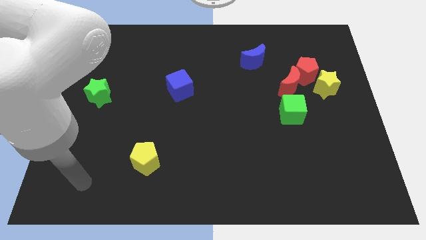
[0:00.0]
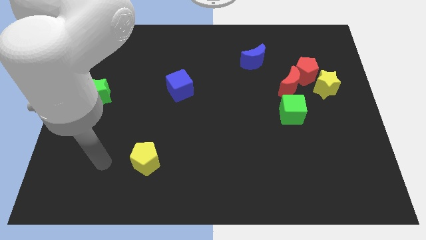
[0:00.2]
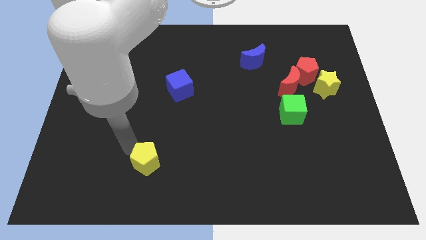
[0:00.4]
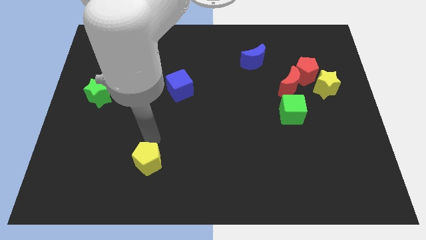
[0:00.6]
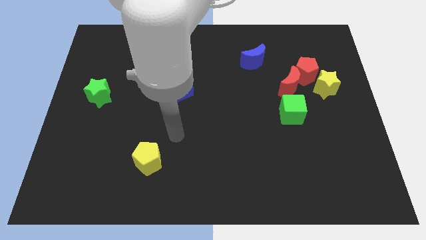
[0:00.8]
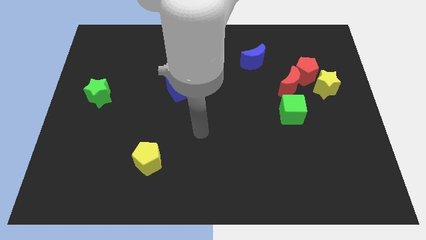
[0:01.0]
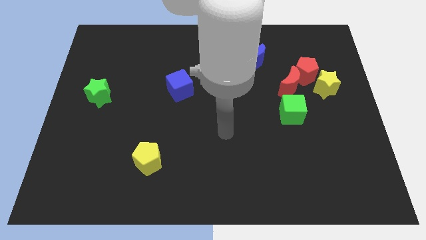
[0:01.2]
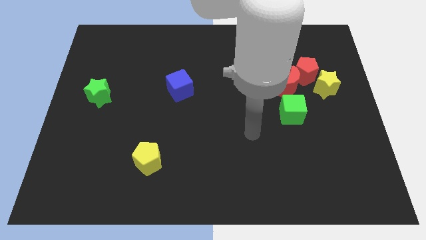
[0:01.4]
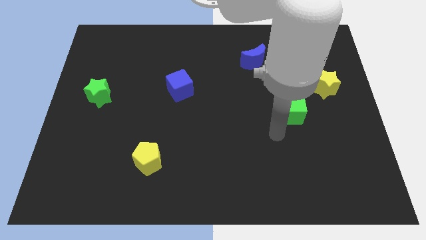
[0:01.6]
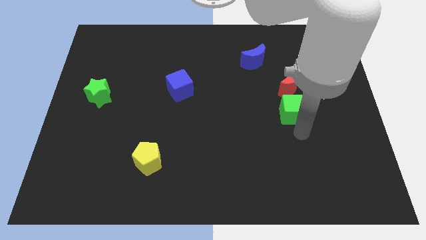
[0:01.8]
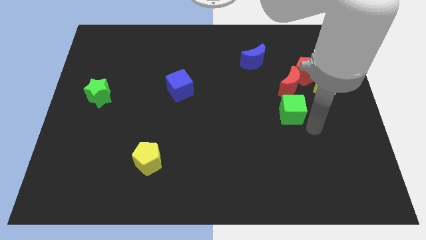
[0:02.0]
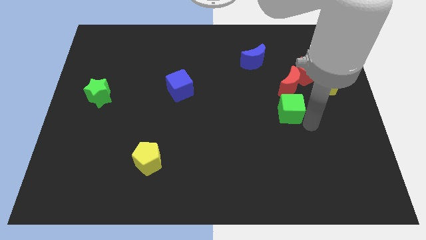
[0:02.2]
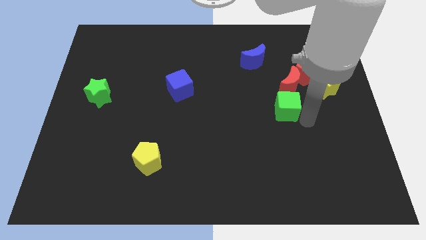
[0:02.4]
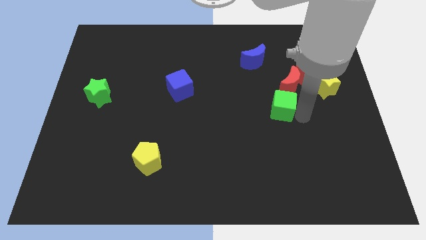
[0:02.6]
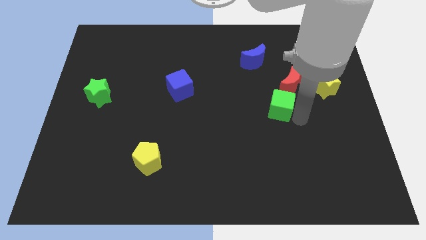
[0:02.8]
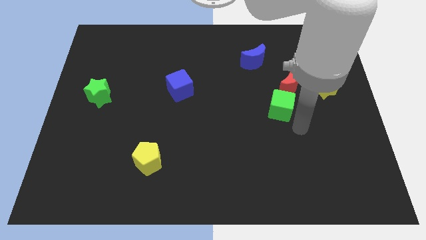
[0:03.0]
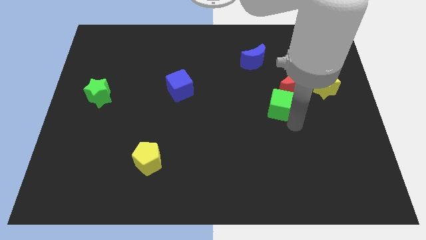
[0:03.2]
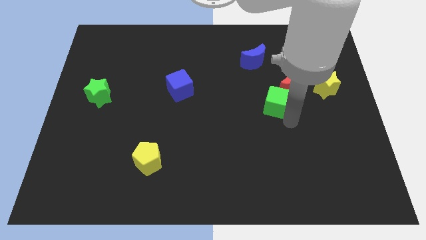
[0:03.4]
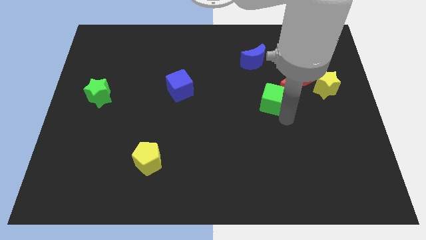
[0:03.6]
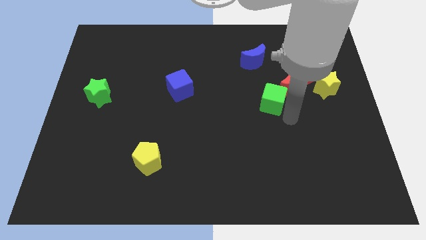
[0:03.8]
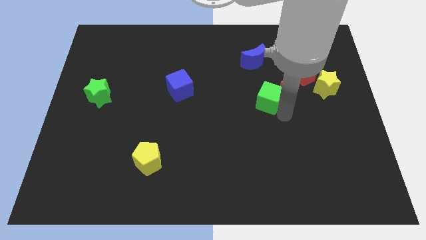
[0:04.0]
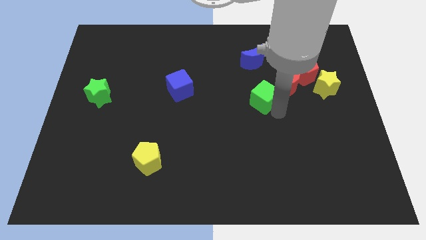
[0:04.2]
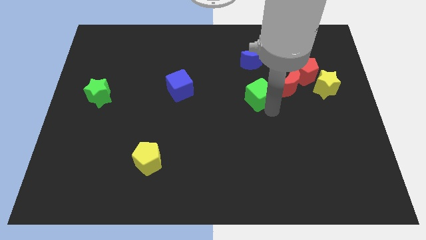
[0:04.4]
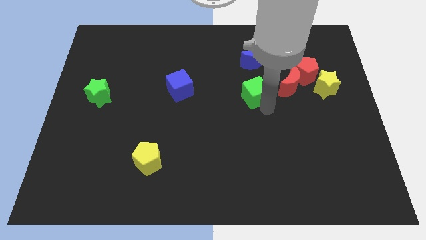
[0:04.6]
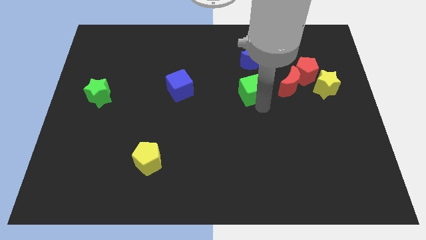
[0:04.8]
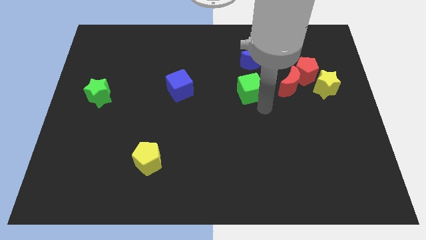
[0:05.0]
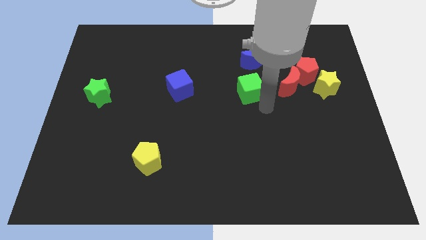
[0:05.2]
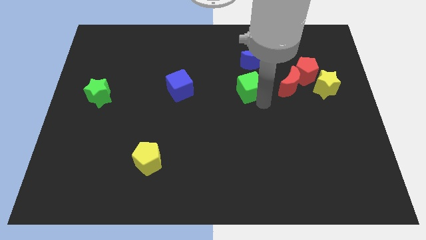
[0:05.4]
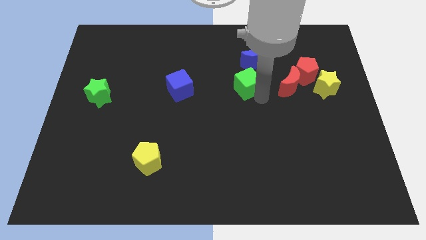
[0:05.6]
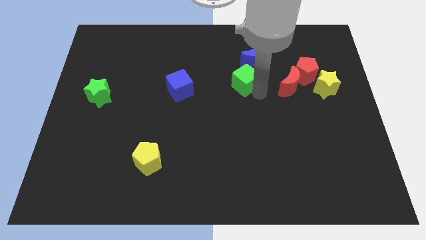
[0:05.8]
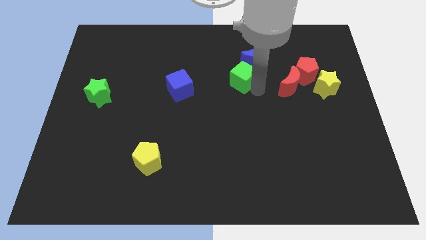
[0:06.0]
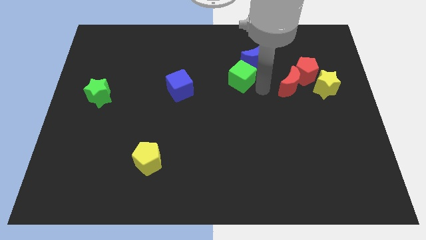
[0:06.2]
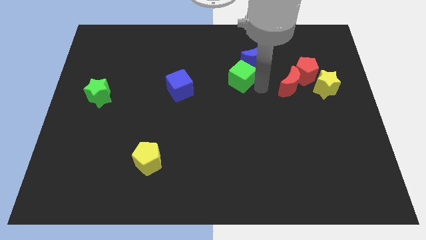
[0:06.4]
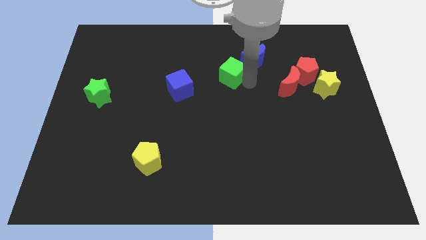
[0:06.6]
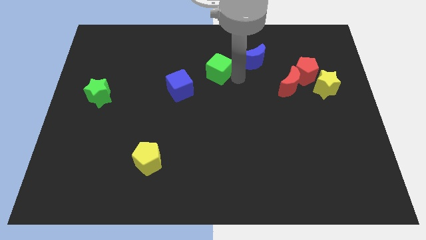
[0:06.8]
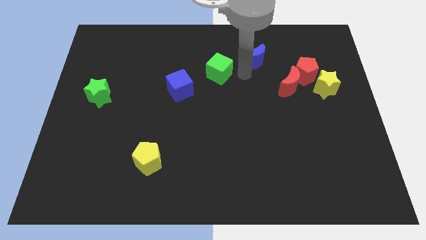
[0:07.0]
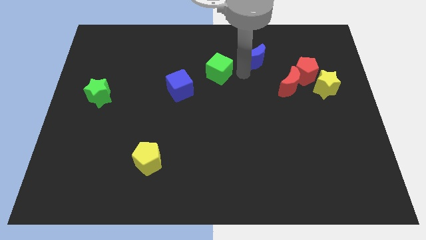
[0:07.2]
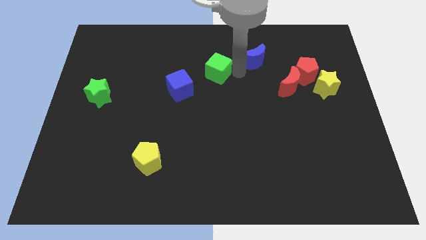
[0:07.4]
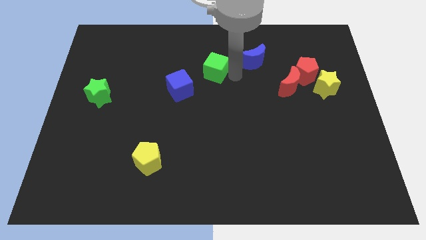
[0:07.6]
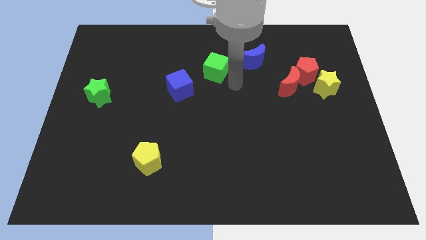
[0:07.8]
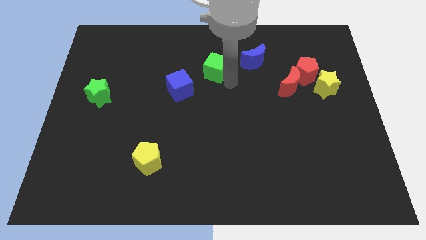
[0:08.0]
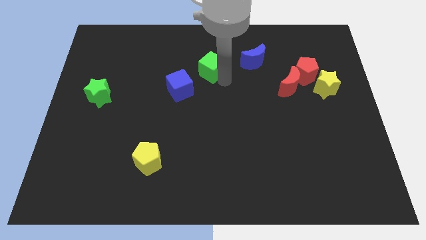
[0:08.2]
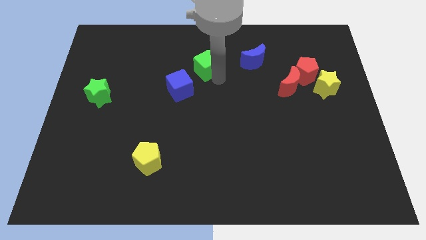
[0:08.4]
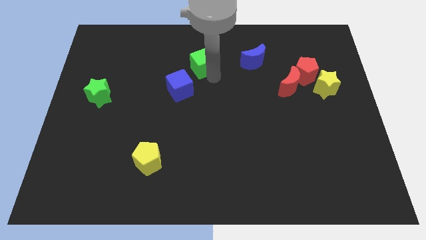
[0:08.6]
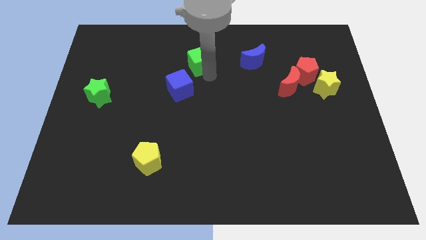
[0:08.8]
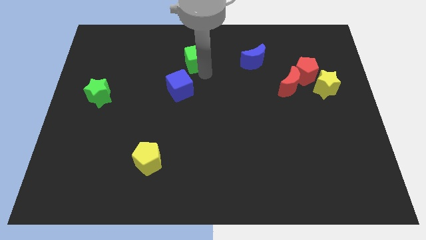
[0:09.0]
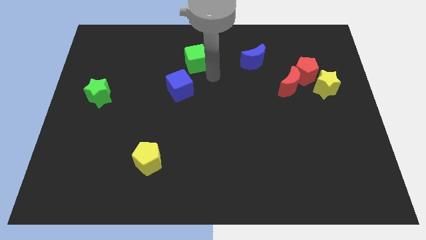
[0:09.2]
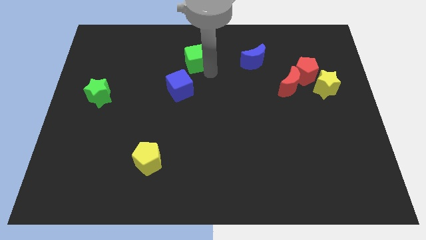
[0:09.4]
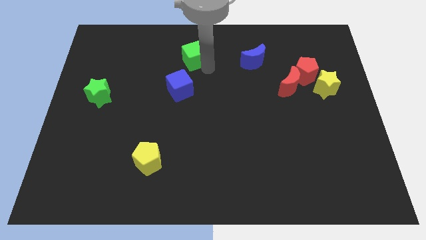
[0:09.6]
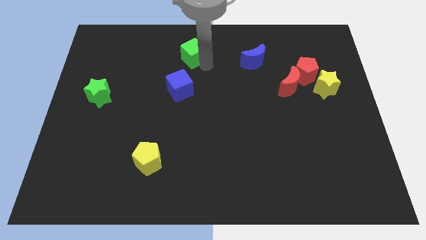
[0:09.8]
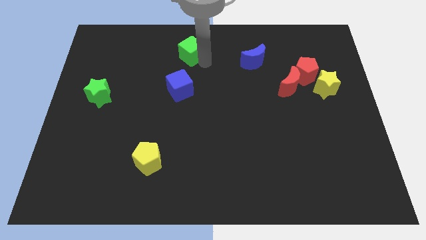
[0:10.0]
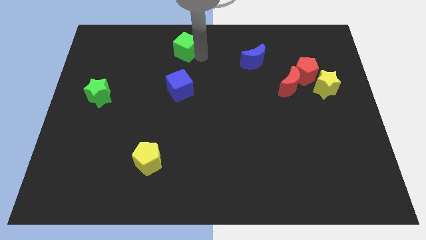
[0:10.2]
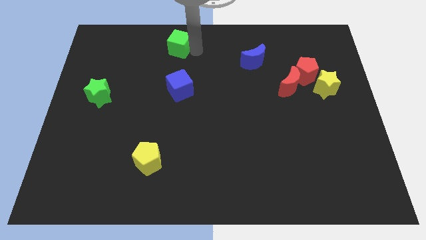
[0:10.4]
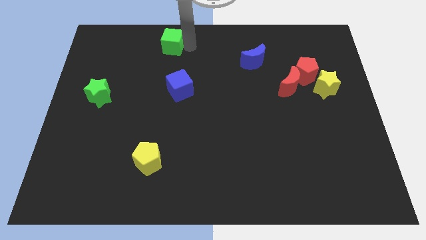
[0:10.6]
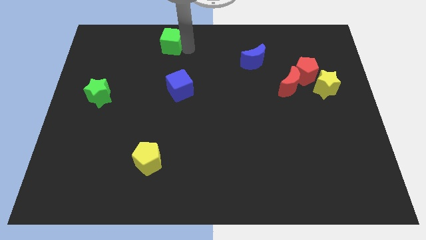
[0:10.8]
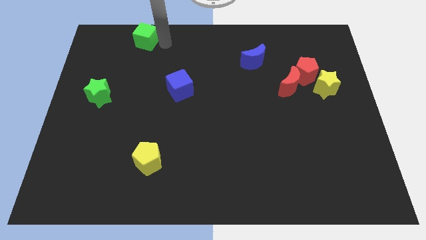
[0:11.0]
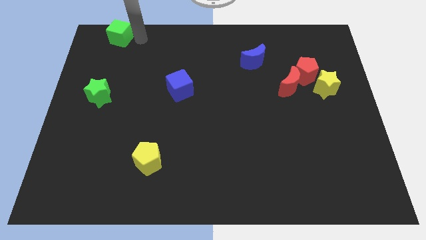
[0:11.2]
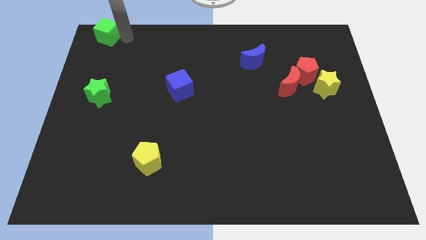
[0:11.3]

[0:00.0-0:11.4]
slide the green cube to the top left
